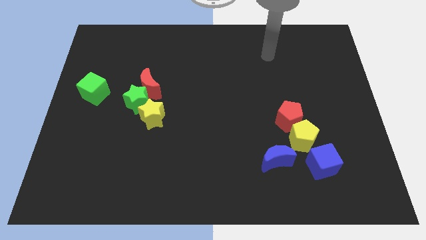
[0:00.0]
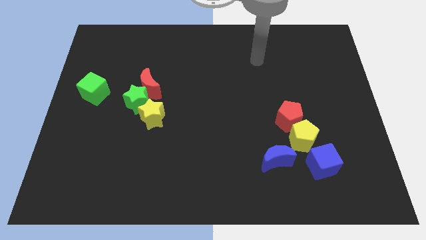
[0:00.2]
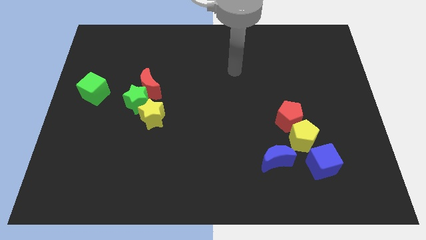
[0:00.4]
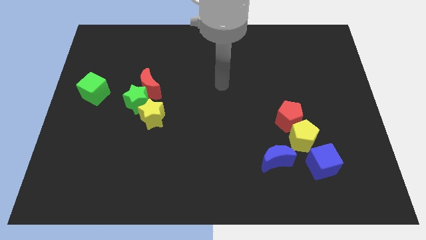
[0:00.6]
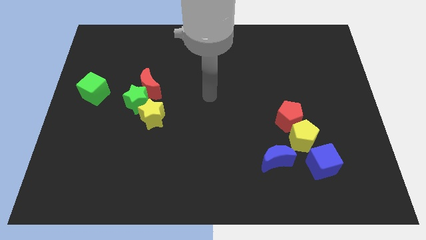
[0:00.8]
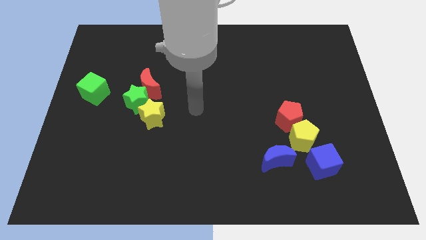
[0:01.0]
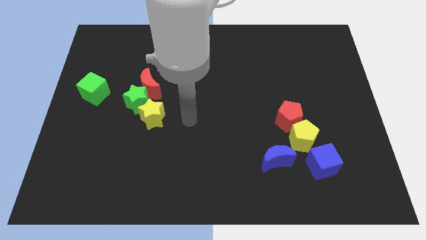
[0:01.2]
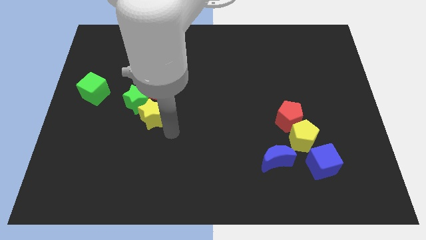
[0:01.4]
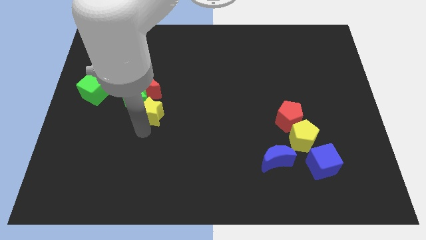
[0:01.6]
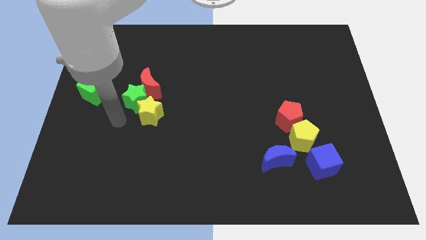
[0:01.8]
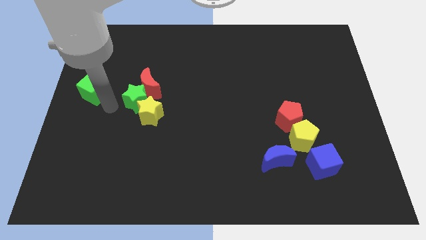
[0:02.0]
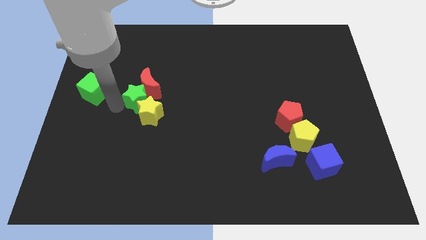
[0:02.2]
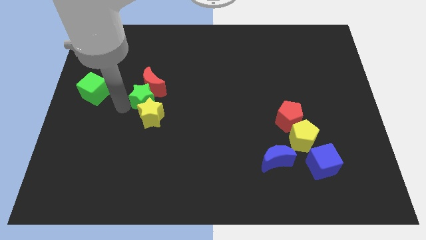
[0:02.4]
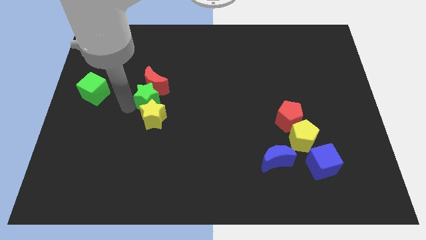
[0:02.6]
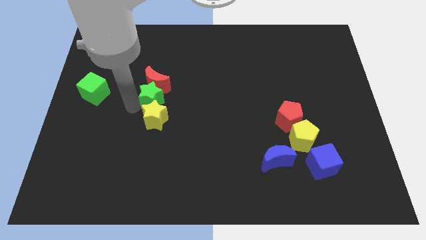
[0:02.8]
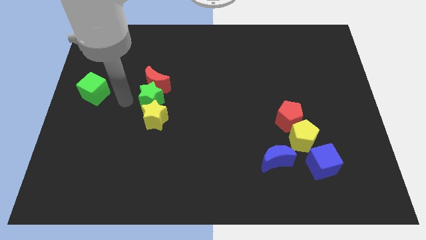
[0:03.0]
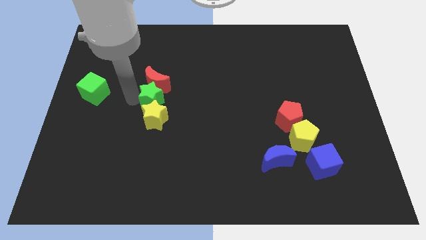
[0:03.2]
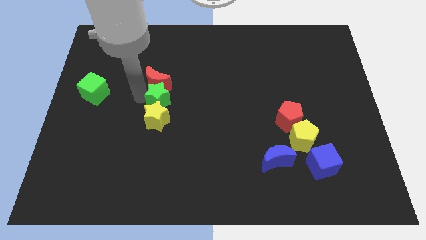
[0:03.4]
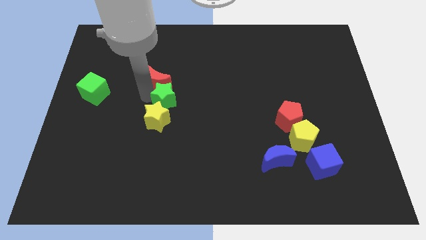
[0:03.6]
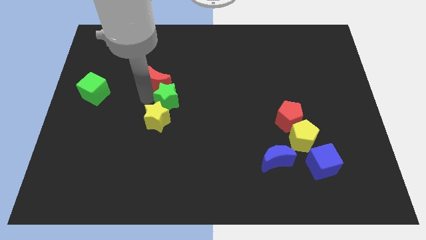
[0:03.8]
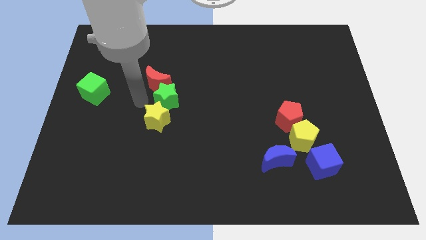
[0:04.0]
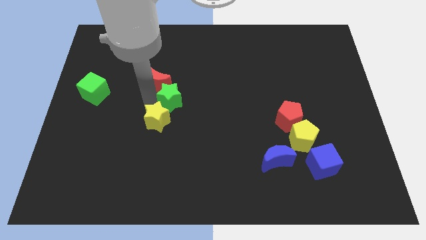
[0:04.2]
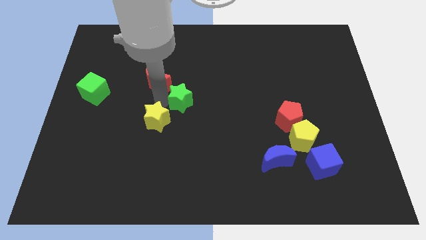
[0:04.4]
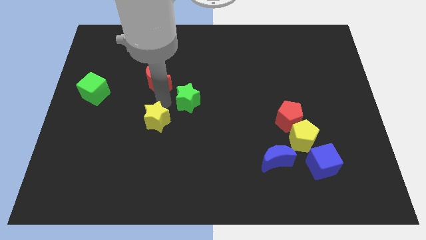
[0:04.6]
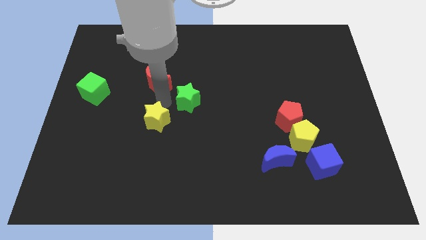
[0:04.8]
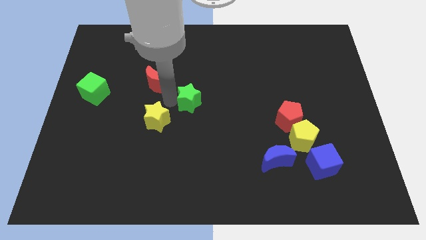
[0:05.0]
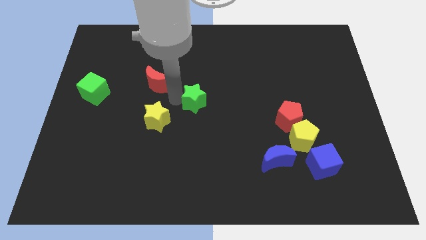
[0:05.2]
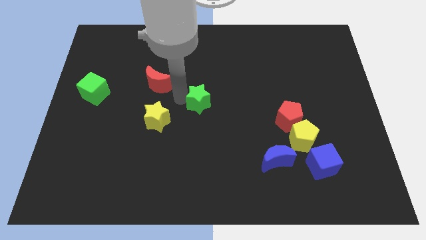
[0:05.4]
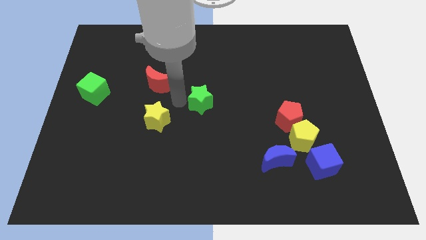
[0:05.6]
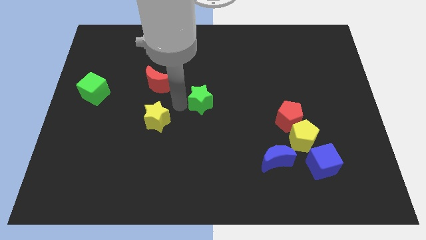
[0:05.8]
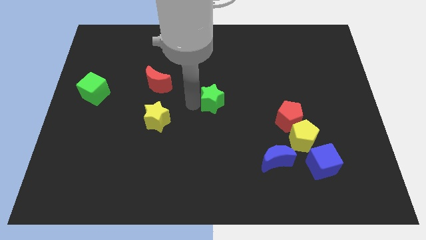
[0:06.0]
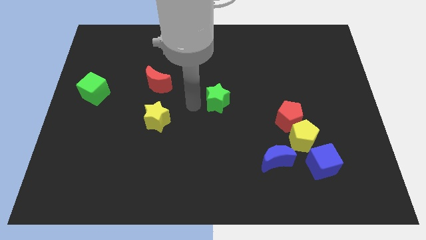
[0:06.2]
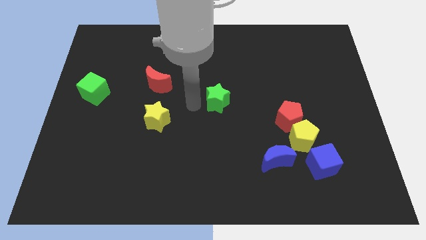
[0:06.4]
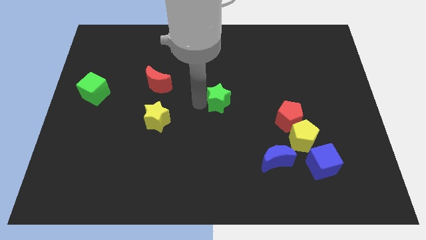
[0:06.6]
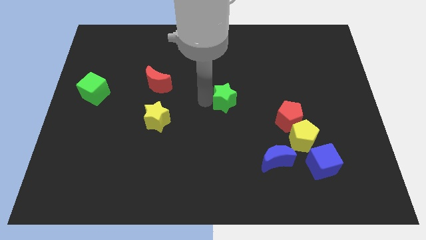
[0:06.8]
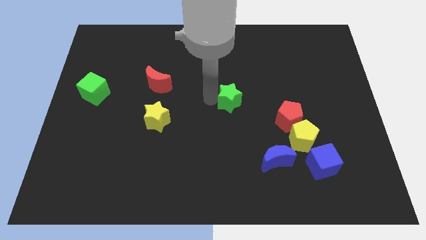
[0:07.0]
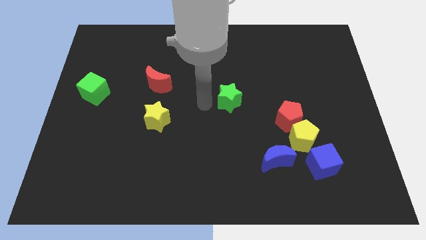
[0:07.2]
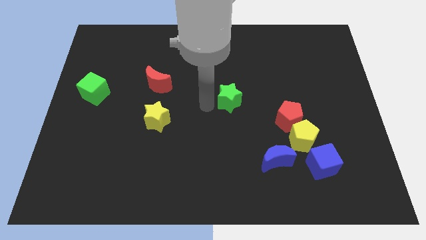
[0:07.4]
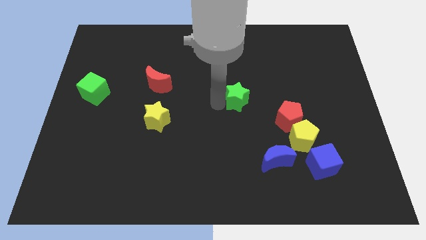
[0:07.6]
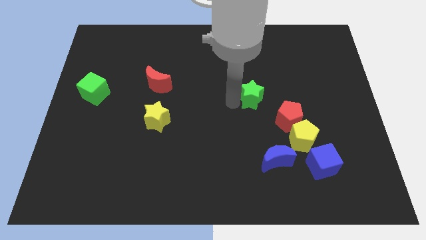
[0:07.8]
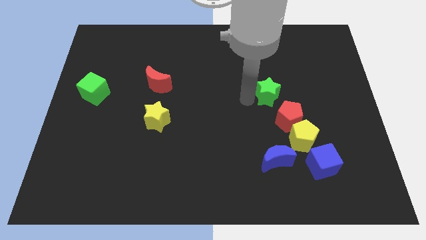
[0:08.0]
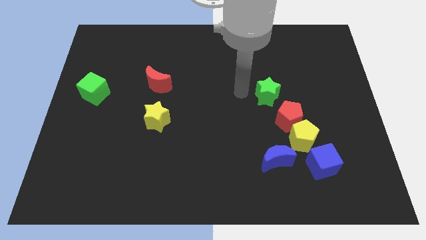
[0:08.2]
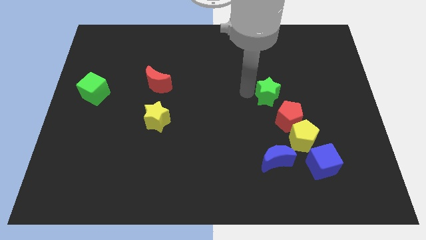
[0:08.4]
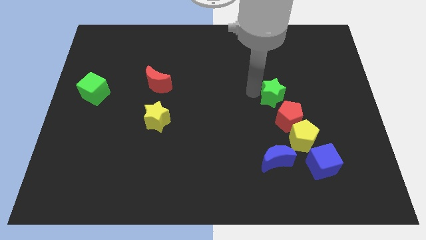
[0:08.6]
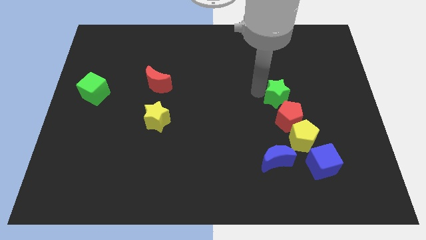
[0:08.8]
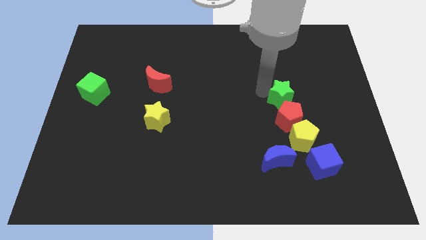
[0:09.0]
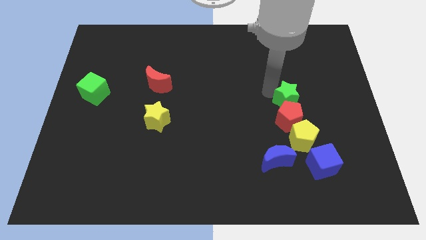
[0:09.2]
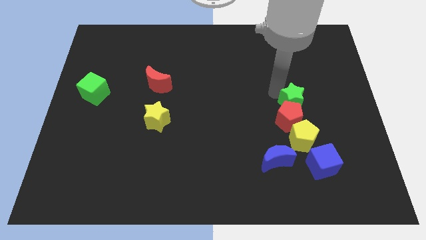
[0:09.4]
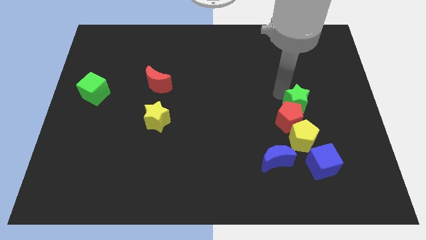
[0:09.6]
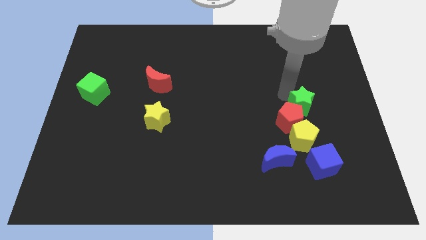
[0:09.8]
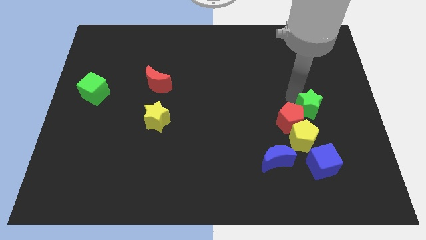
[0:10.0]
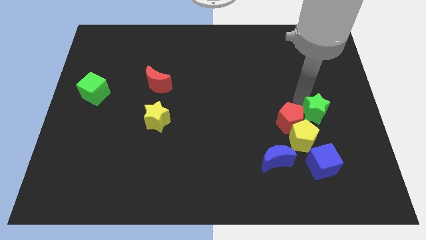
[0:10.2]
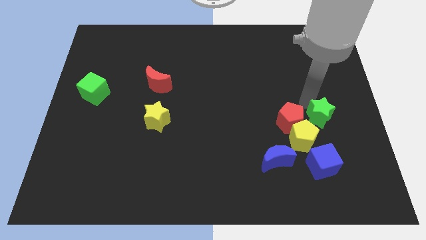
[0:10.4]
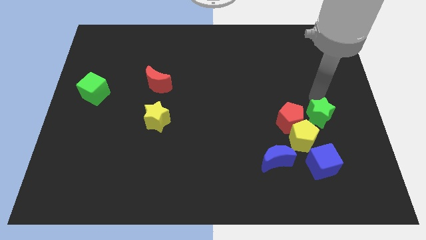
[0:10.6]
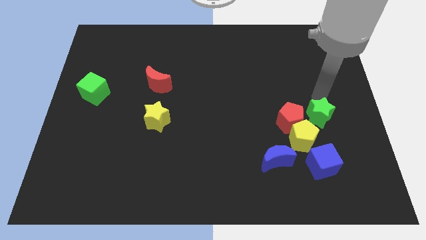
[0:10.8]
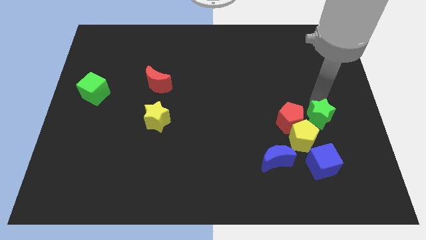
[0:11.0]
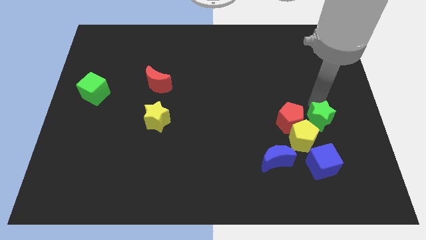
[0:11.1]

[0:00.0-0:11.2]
slide the green star diagonally down and to the right of the red pentagon

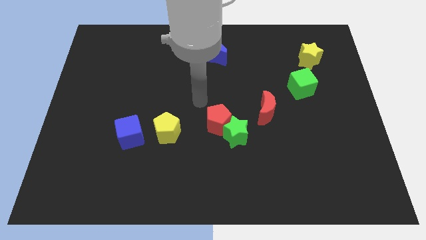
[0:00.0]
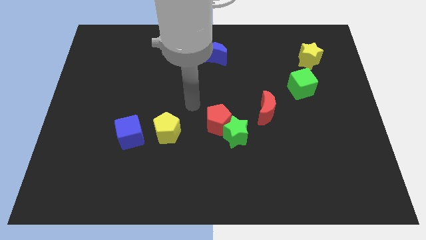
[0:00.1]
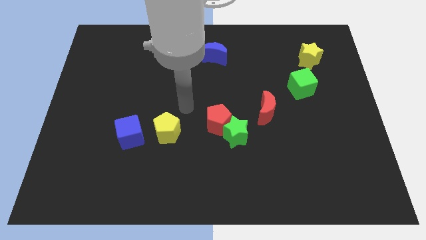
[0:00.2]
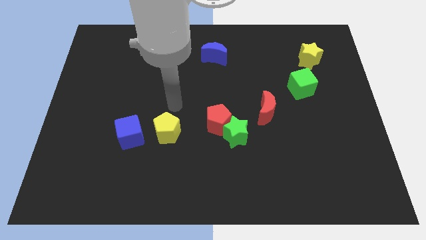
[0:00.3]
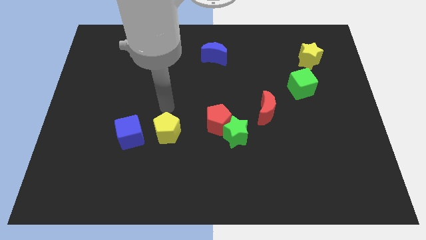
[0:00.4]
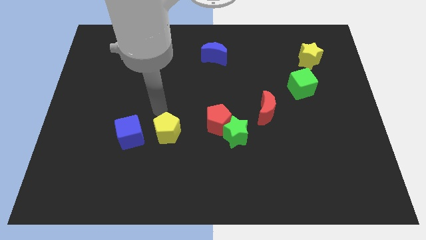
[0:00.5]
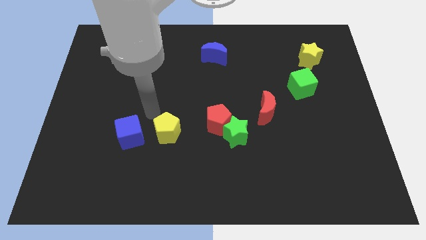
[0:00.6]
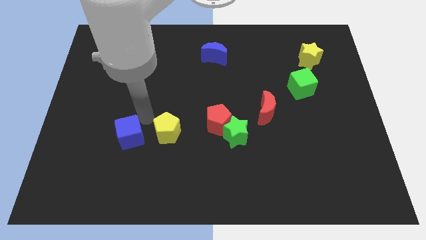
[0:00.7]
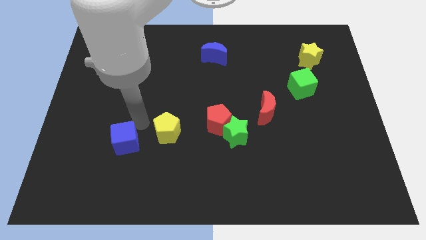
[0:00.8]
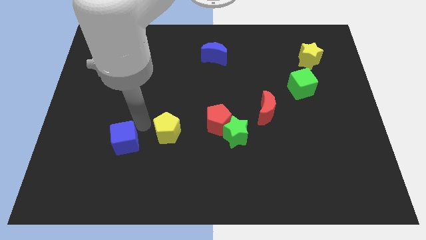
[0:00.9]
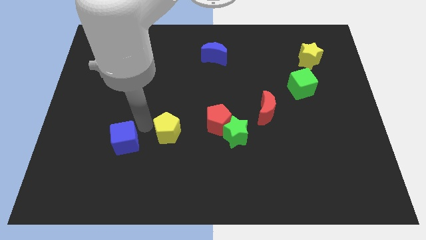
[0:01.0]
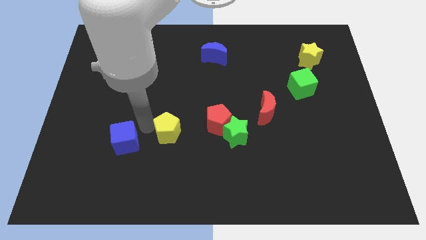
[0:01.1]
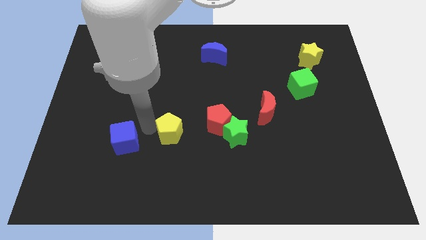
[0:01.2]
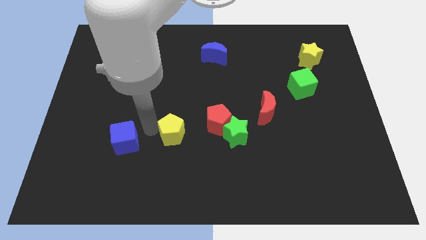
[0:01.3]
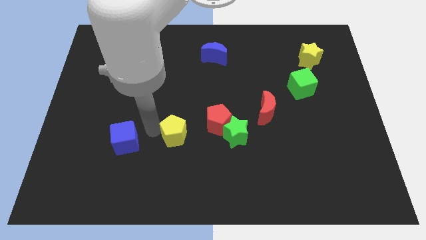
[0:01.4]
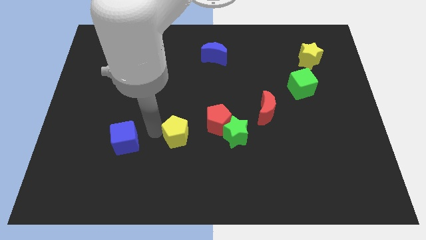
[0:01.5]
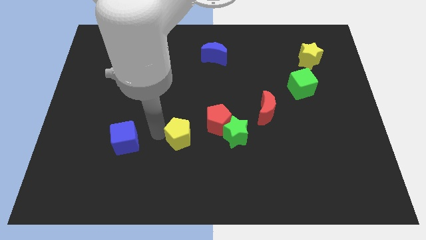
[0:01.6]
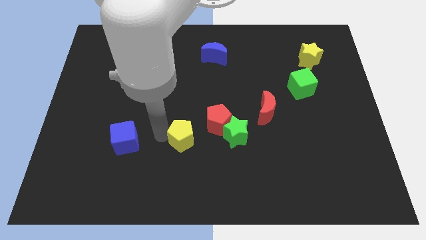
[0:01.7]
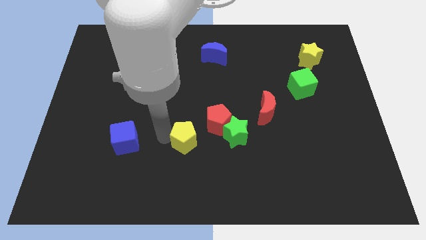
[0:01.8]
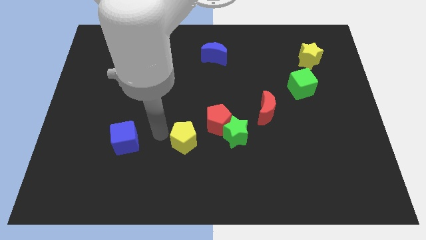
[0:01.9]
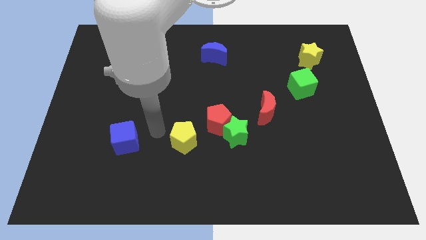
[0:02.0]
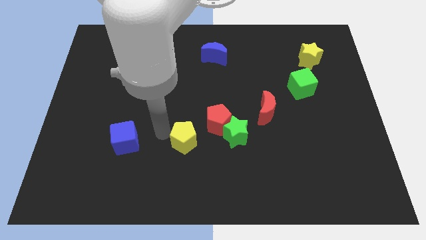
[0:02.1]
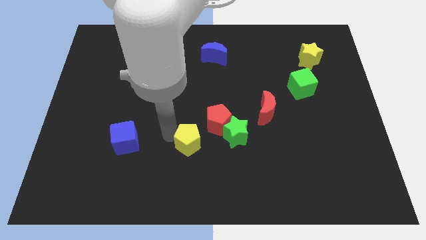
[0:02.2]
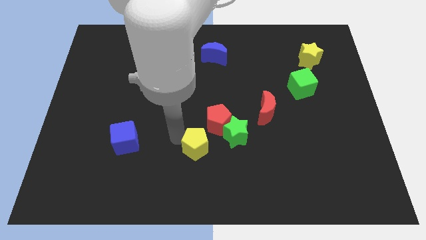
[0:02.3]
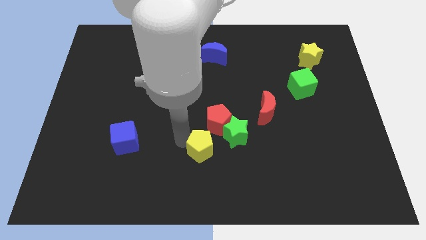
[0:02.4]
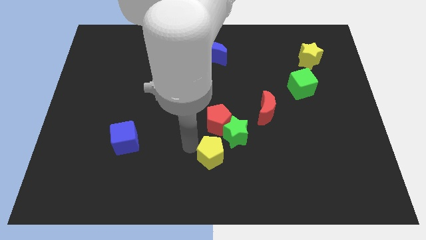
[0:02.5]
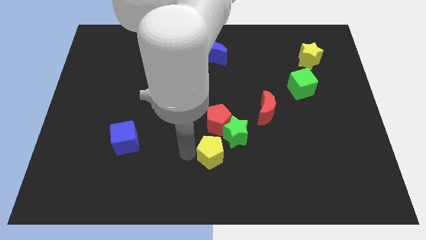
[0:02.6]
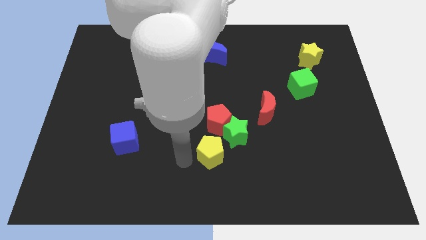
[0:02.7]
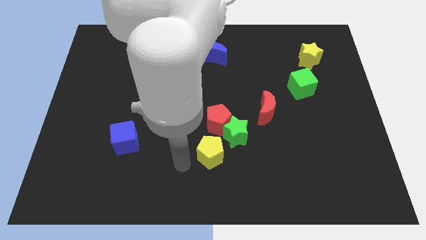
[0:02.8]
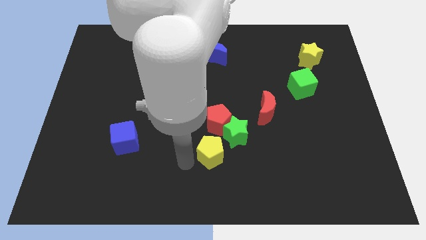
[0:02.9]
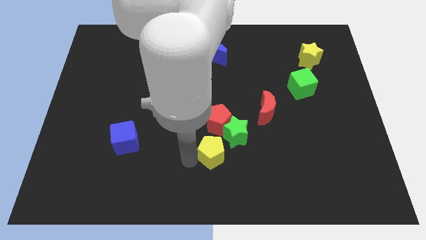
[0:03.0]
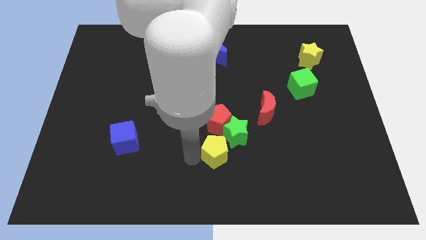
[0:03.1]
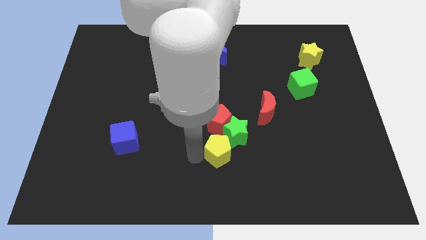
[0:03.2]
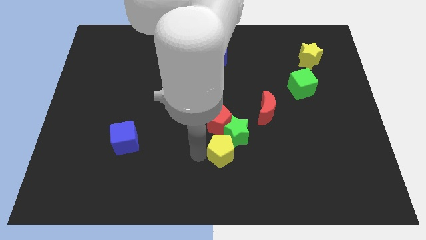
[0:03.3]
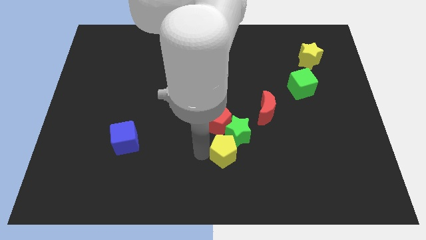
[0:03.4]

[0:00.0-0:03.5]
push the yellow pentagon to the bottom right of the red pentagon
